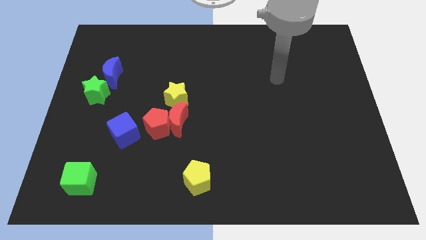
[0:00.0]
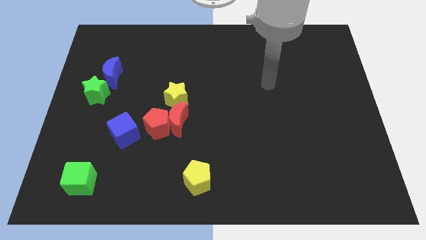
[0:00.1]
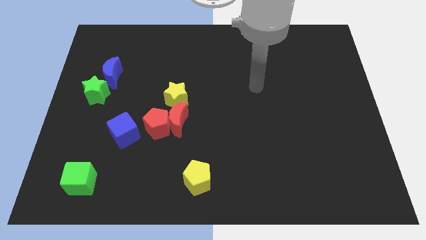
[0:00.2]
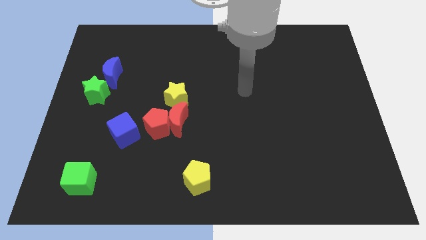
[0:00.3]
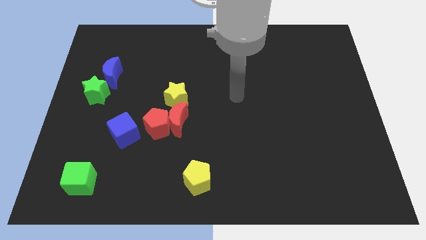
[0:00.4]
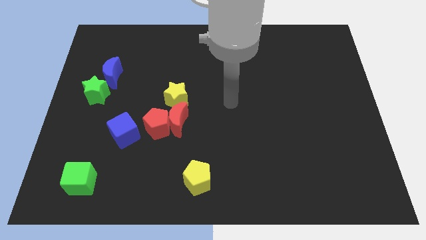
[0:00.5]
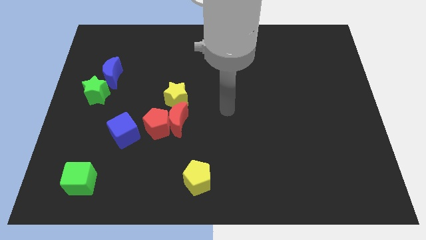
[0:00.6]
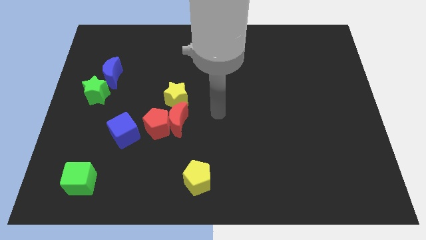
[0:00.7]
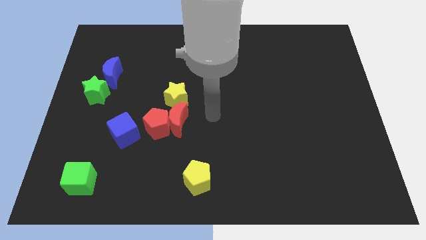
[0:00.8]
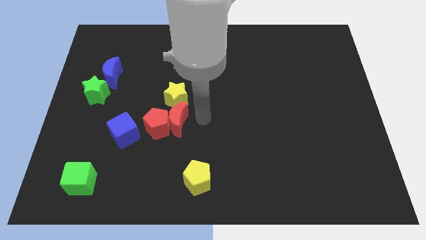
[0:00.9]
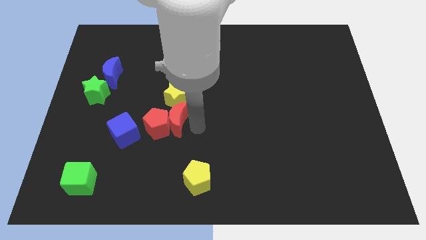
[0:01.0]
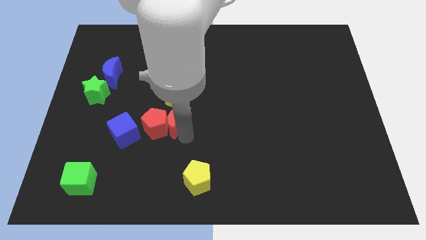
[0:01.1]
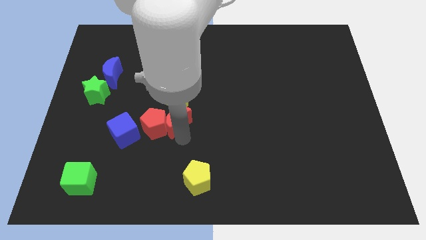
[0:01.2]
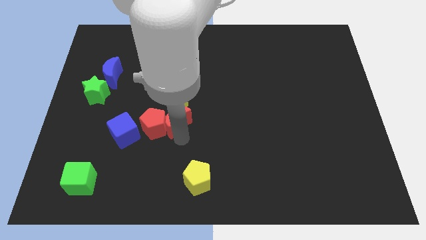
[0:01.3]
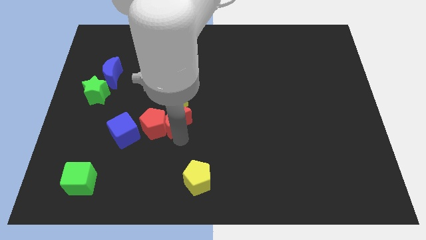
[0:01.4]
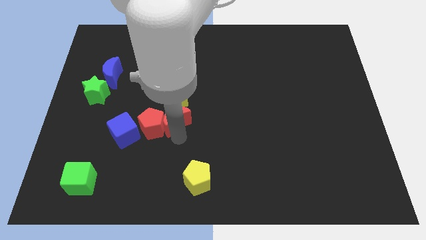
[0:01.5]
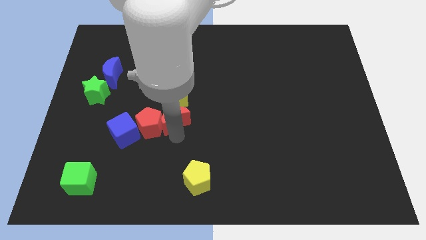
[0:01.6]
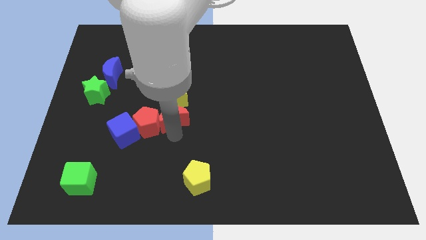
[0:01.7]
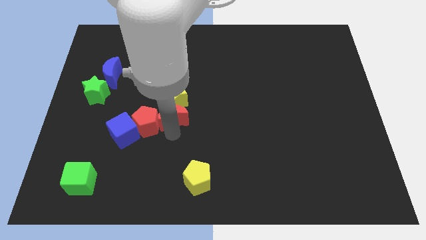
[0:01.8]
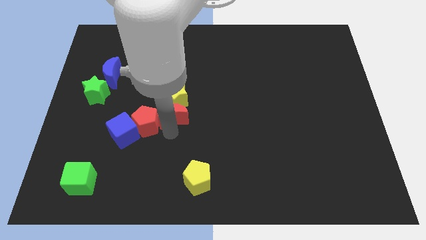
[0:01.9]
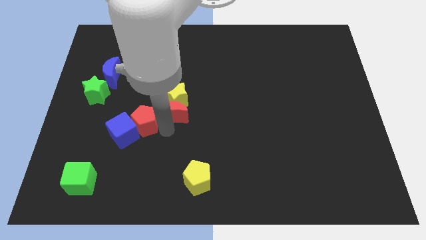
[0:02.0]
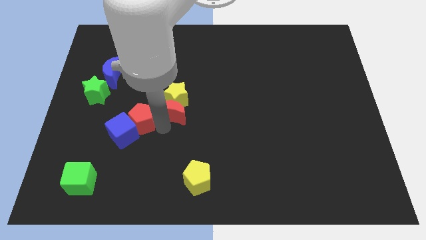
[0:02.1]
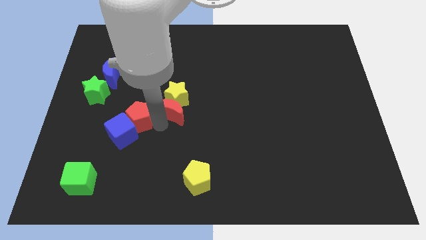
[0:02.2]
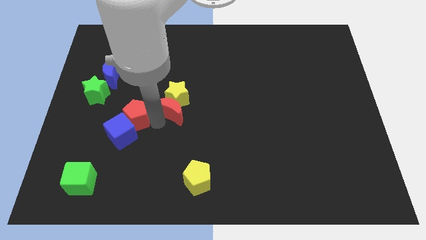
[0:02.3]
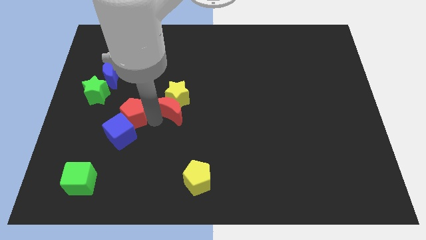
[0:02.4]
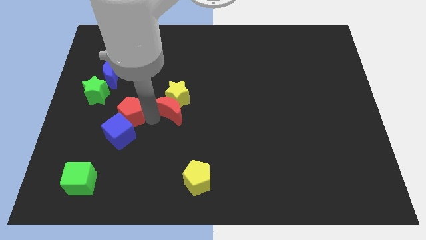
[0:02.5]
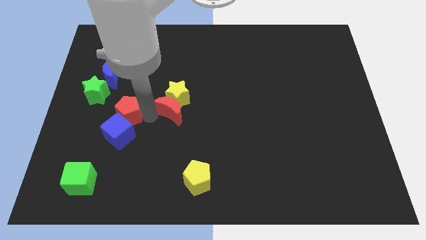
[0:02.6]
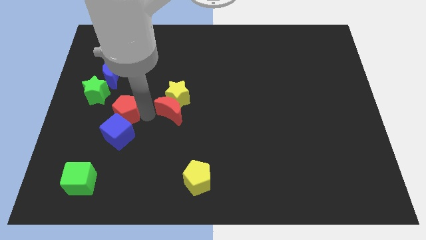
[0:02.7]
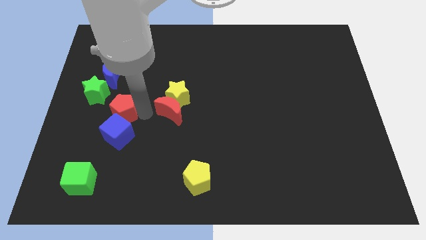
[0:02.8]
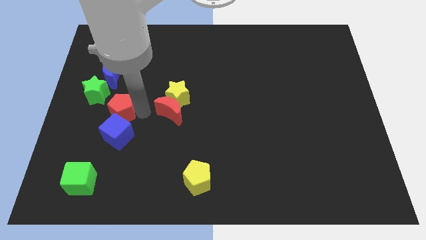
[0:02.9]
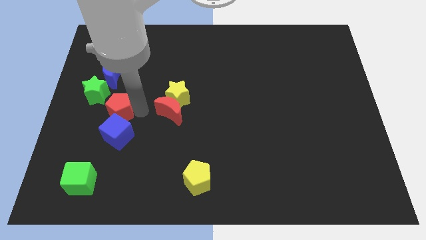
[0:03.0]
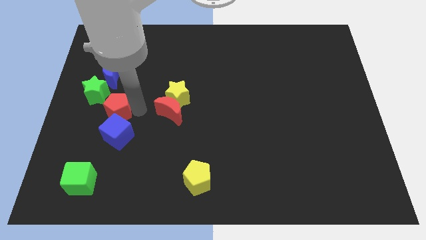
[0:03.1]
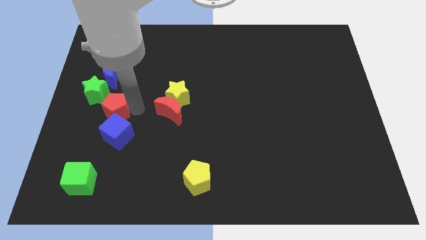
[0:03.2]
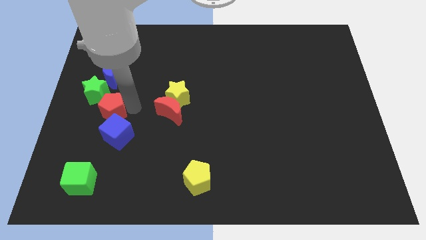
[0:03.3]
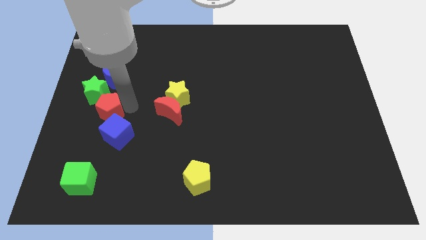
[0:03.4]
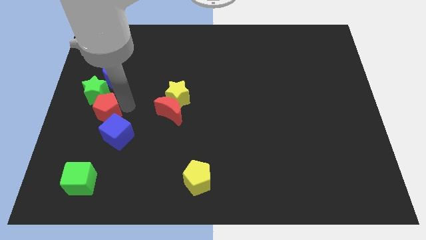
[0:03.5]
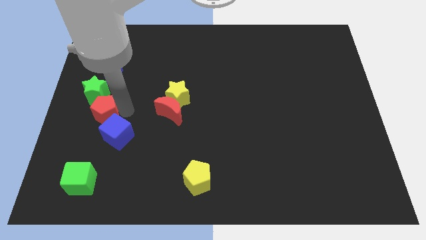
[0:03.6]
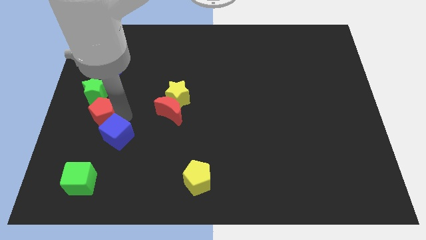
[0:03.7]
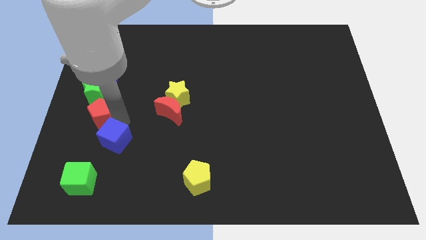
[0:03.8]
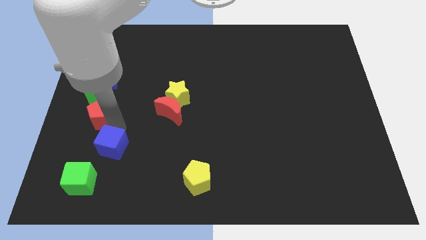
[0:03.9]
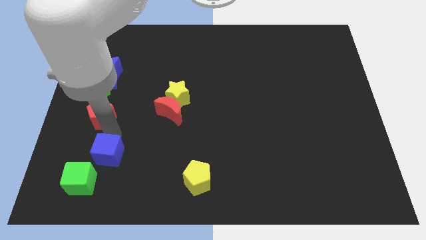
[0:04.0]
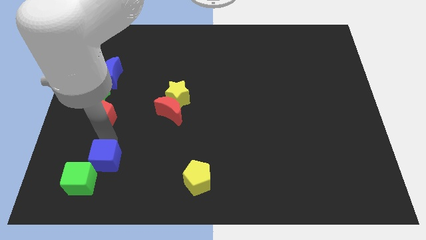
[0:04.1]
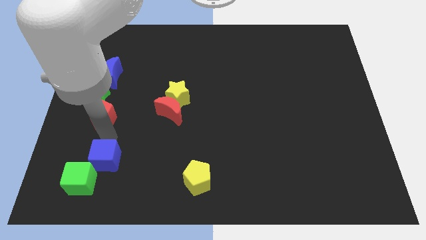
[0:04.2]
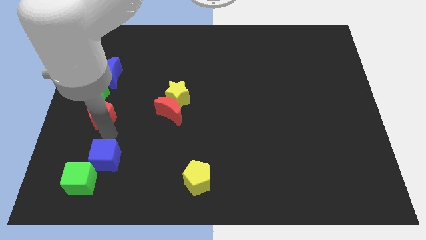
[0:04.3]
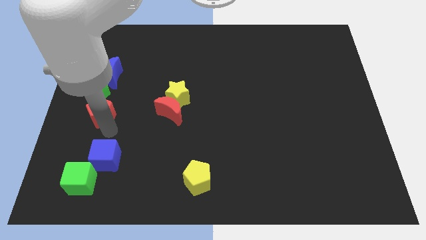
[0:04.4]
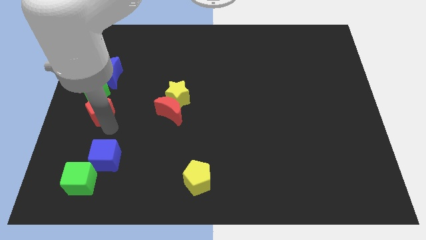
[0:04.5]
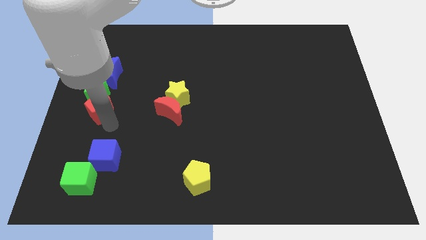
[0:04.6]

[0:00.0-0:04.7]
move the red pentagon towards the green star

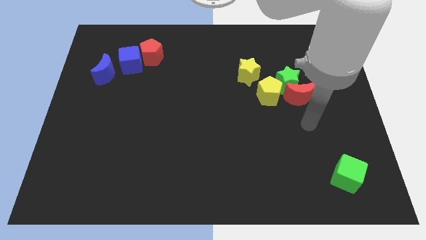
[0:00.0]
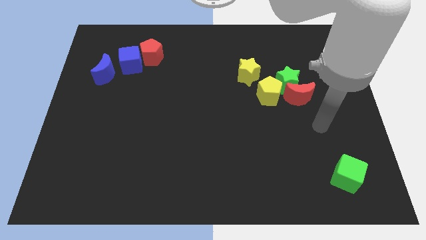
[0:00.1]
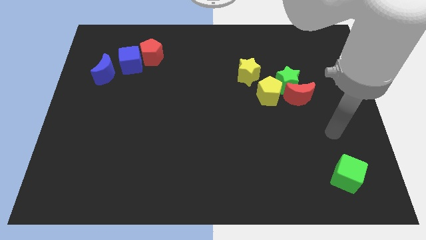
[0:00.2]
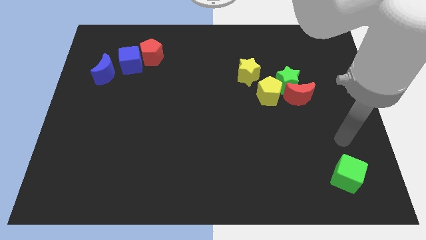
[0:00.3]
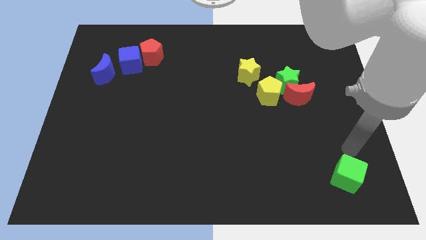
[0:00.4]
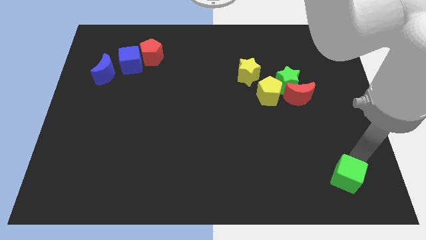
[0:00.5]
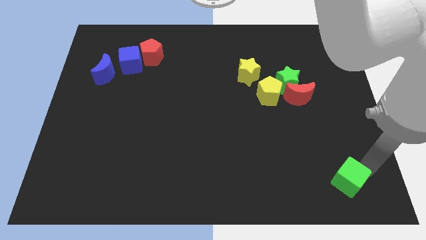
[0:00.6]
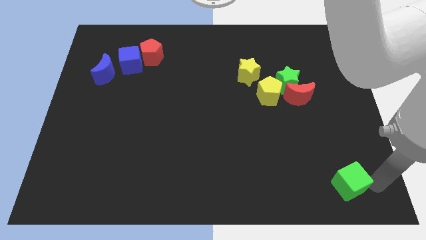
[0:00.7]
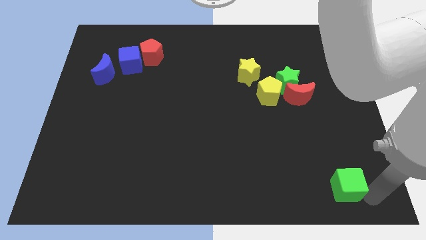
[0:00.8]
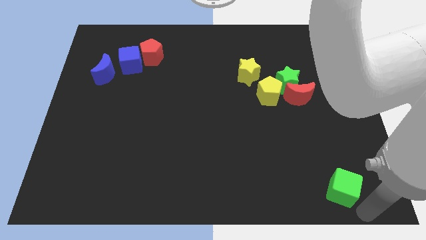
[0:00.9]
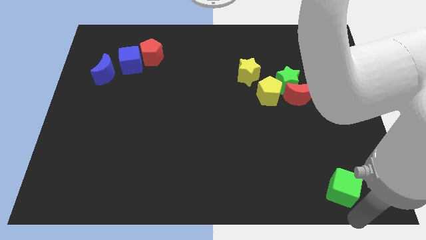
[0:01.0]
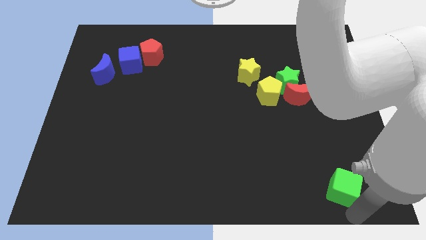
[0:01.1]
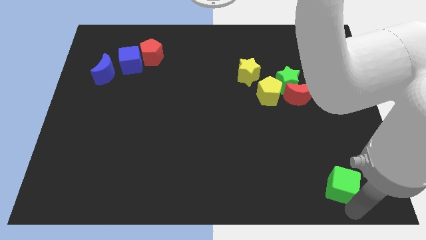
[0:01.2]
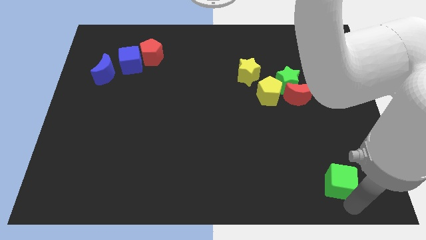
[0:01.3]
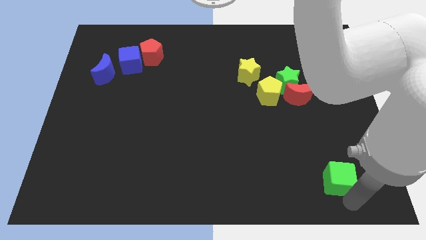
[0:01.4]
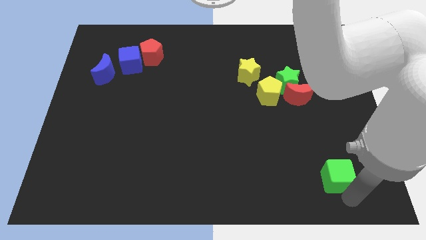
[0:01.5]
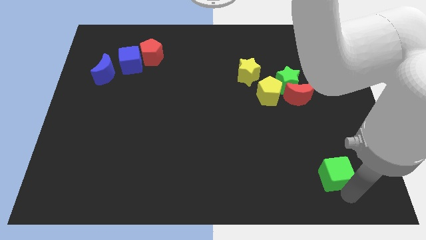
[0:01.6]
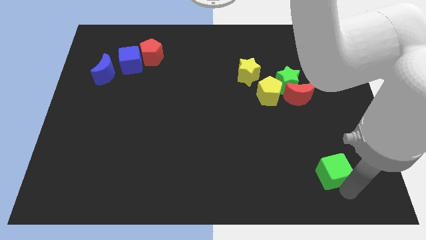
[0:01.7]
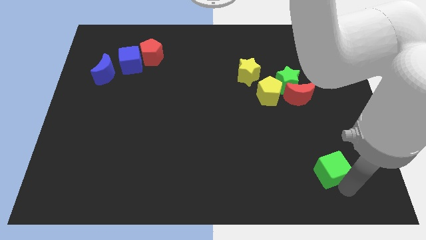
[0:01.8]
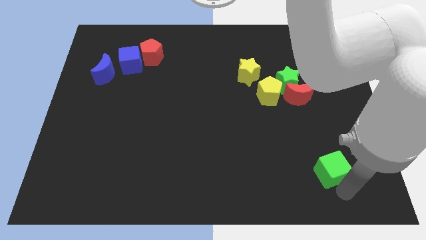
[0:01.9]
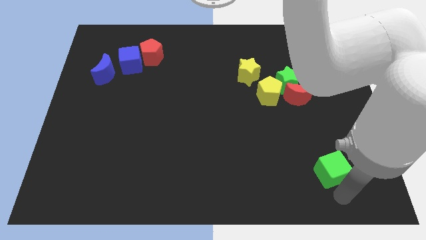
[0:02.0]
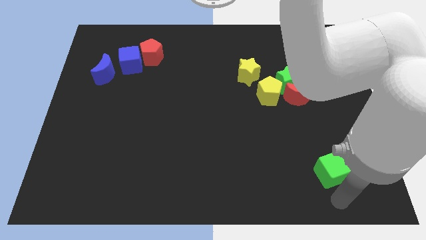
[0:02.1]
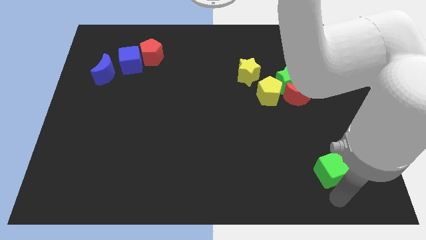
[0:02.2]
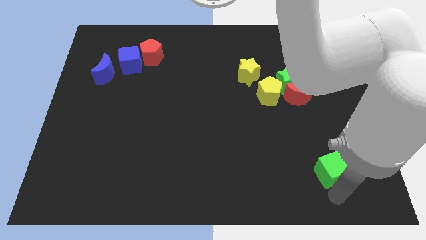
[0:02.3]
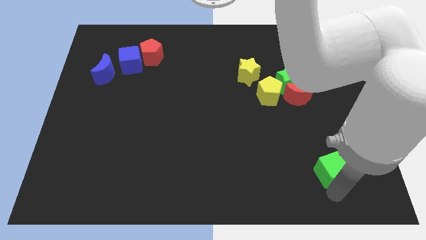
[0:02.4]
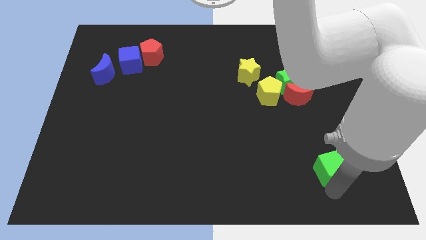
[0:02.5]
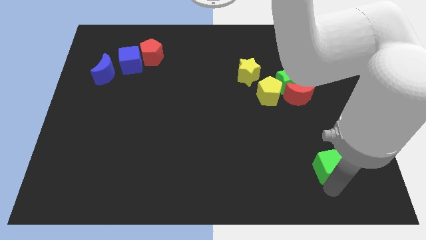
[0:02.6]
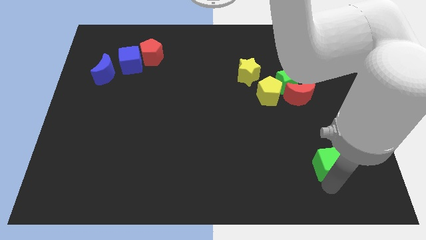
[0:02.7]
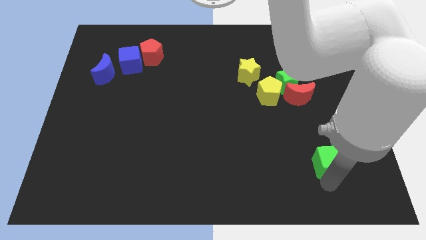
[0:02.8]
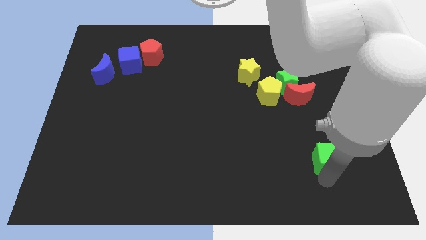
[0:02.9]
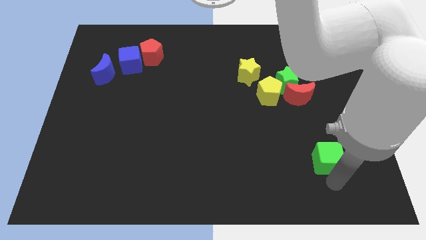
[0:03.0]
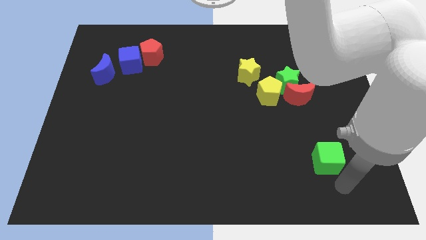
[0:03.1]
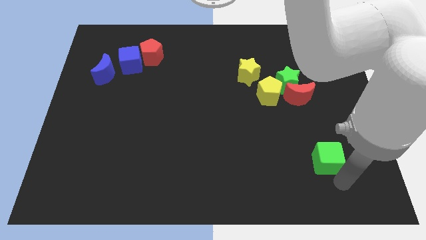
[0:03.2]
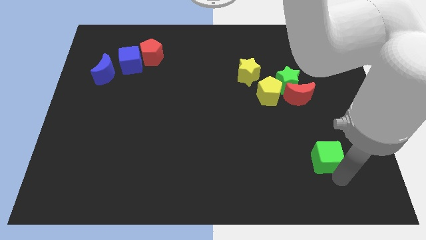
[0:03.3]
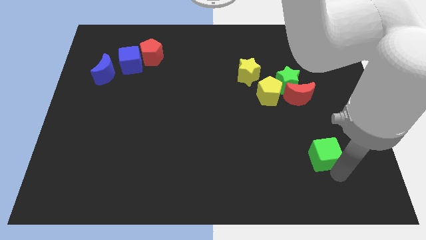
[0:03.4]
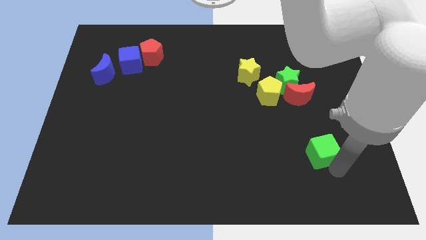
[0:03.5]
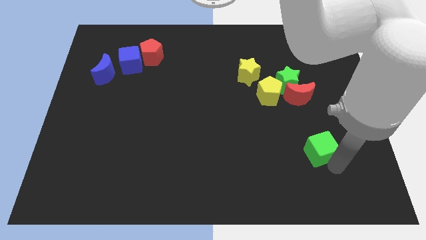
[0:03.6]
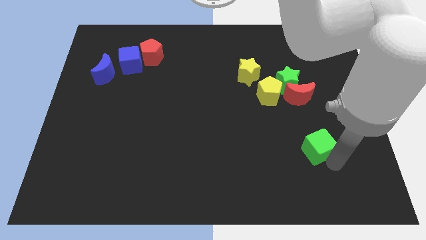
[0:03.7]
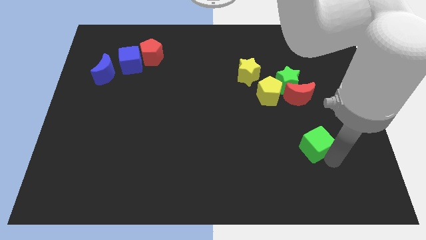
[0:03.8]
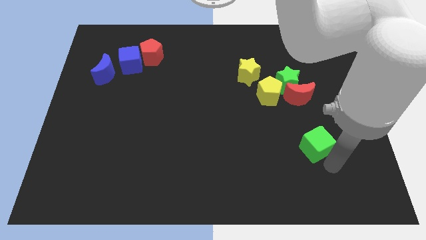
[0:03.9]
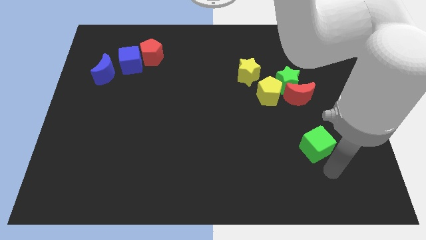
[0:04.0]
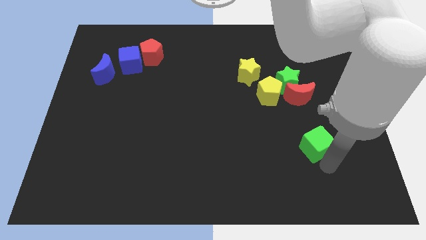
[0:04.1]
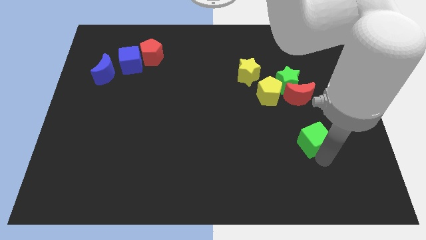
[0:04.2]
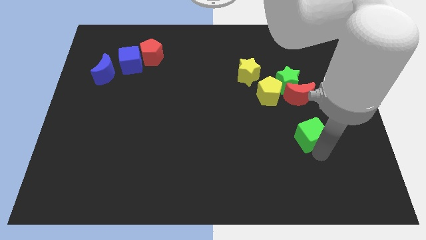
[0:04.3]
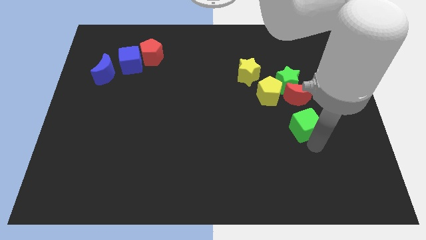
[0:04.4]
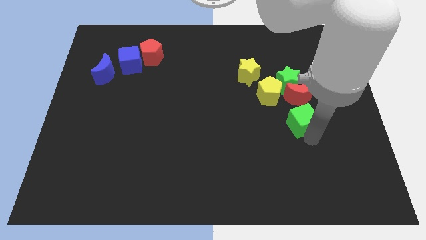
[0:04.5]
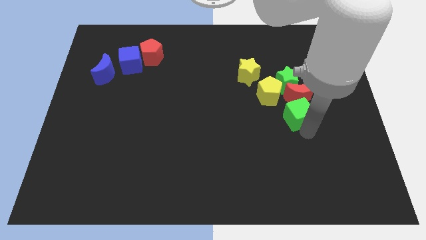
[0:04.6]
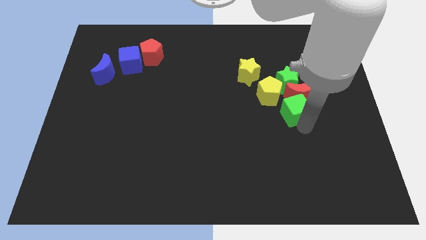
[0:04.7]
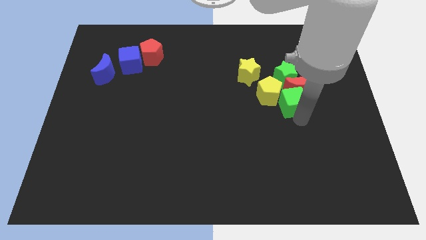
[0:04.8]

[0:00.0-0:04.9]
put the green cube towards the yellow pentagon
